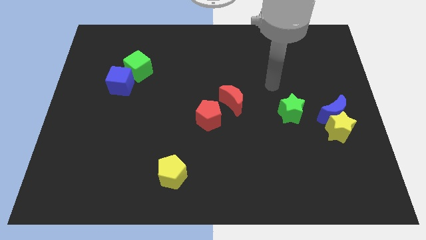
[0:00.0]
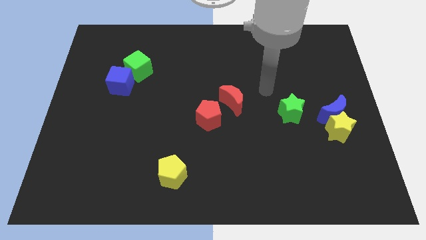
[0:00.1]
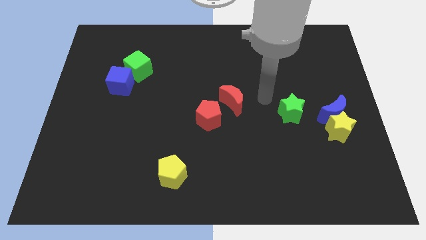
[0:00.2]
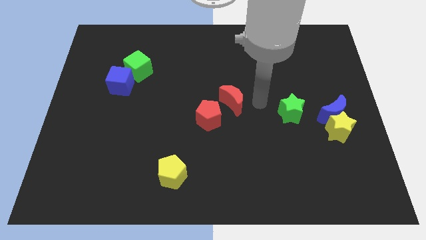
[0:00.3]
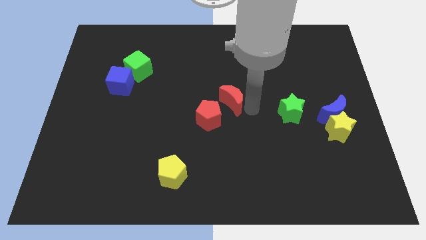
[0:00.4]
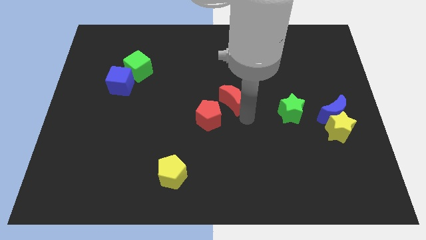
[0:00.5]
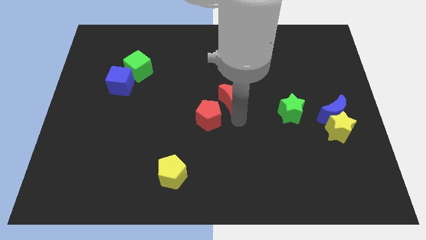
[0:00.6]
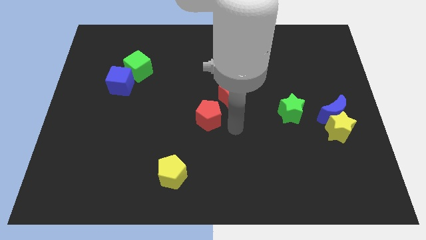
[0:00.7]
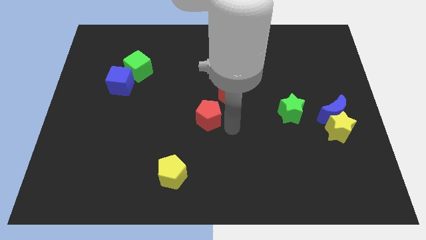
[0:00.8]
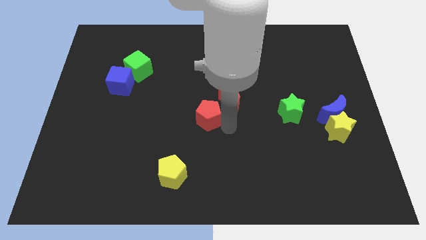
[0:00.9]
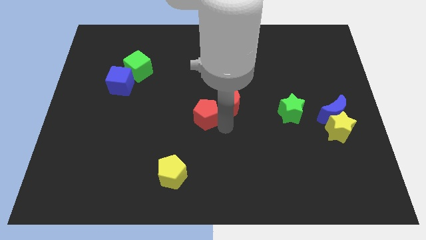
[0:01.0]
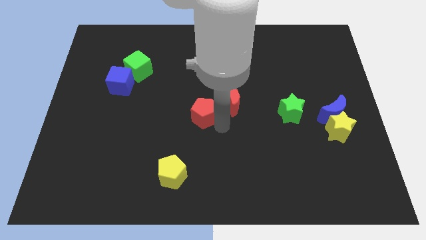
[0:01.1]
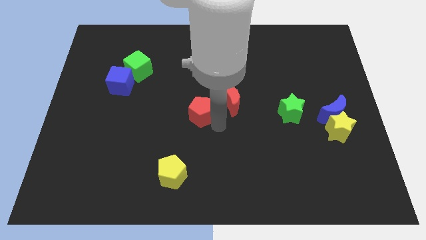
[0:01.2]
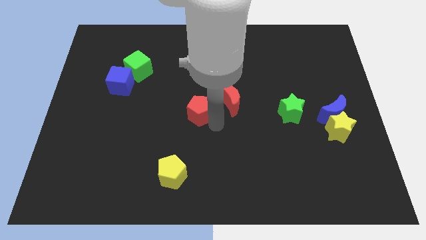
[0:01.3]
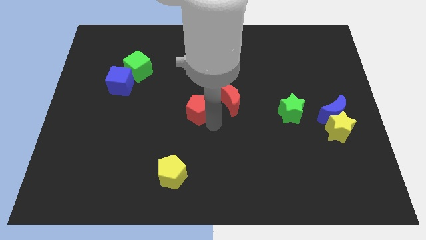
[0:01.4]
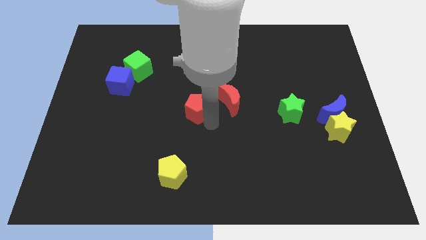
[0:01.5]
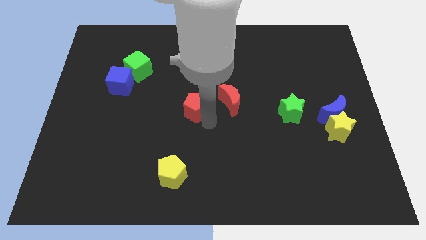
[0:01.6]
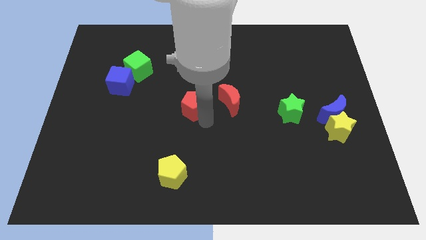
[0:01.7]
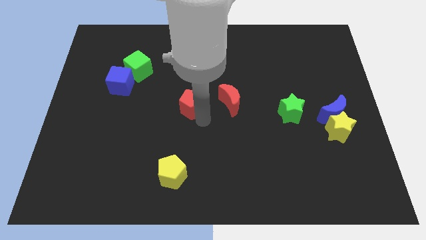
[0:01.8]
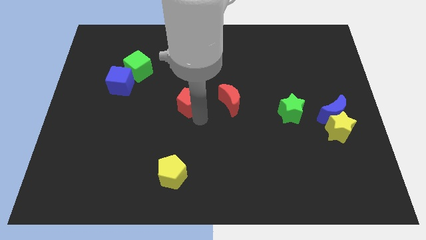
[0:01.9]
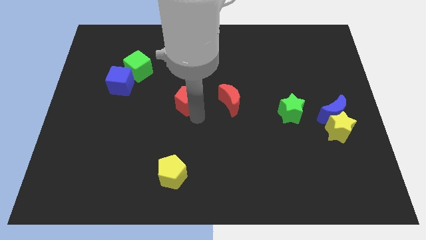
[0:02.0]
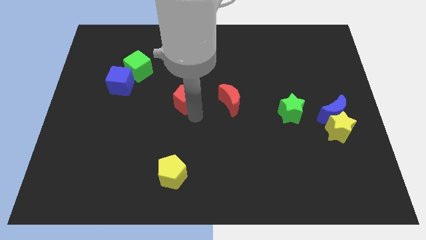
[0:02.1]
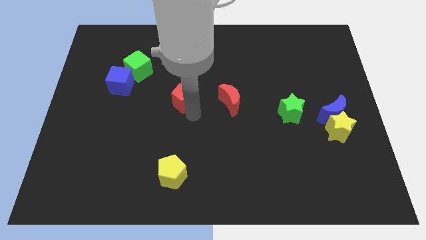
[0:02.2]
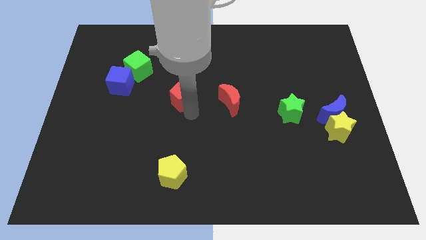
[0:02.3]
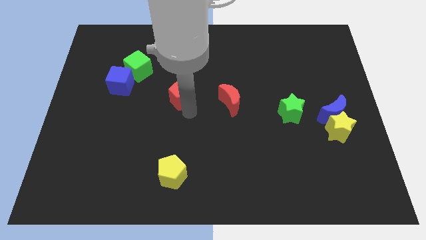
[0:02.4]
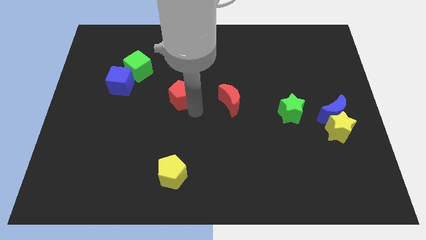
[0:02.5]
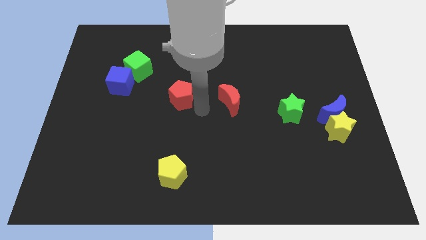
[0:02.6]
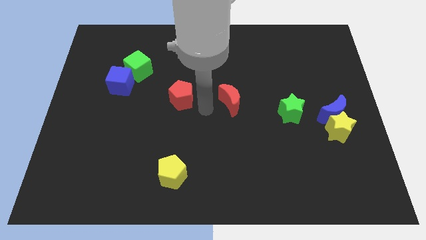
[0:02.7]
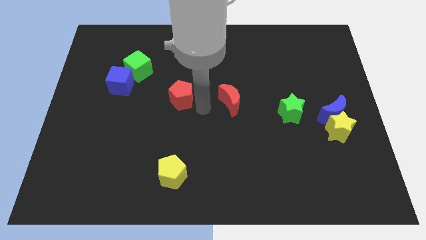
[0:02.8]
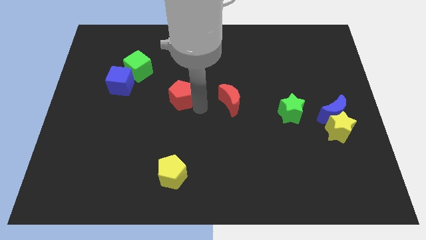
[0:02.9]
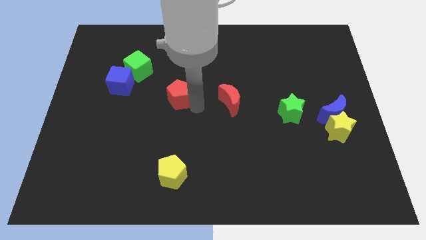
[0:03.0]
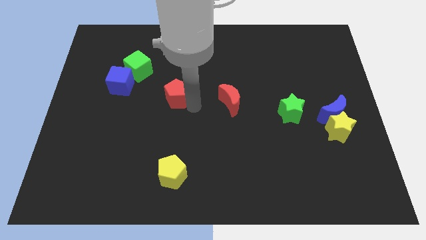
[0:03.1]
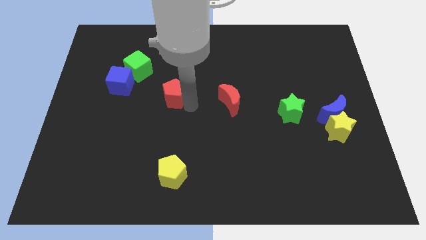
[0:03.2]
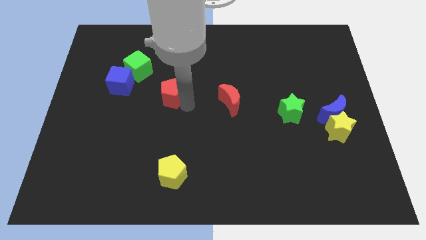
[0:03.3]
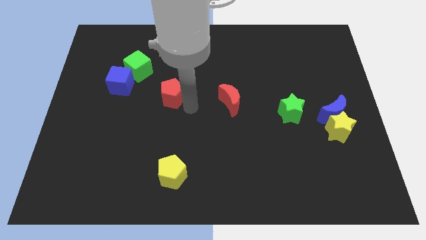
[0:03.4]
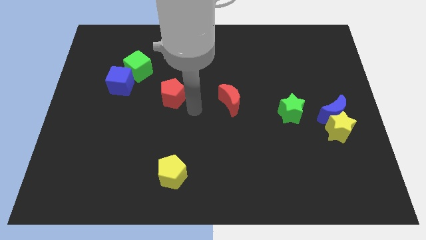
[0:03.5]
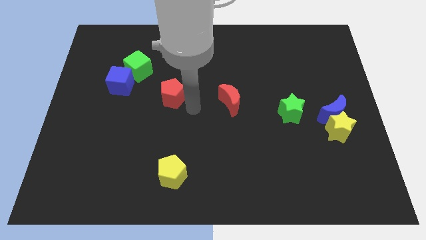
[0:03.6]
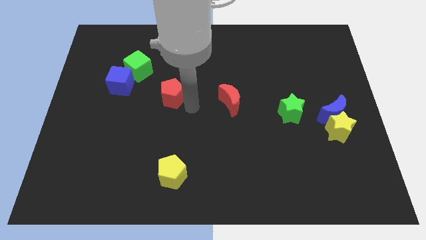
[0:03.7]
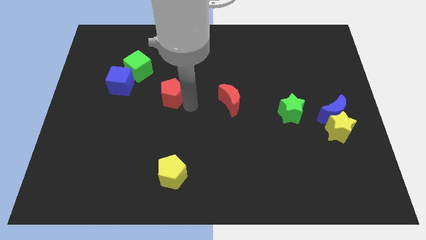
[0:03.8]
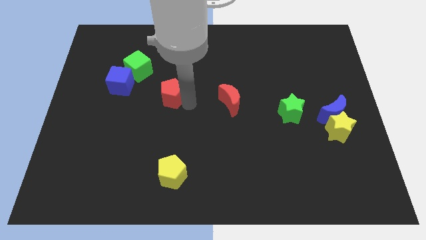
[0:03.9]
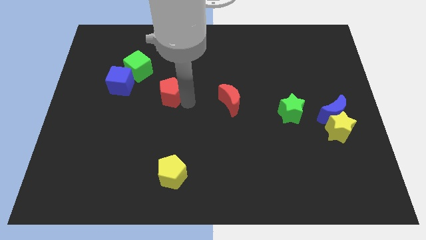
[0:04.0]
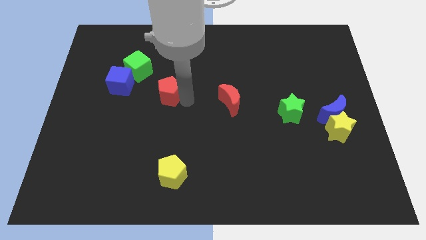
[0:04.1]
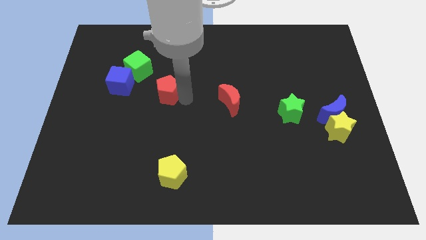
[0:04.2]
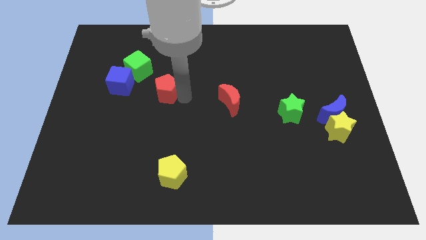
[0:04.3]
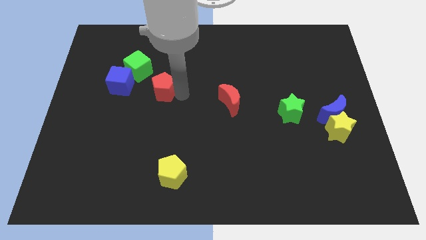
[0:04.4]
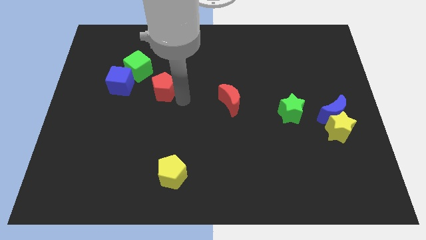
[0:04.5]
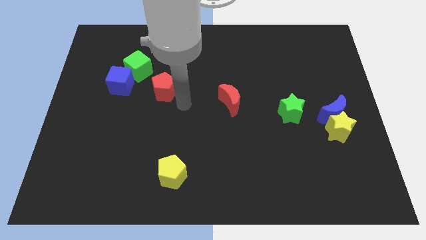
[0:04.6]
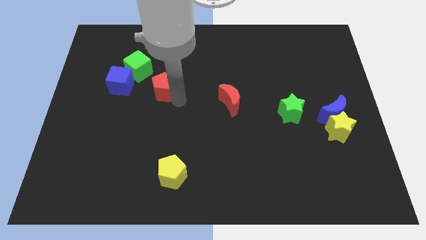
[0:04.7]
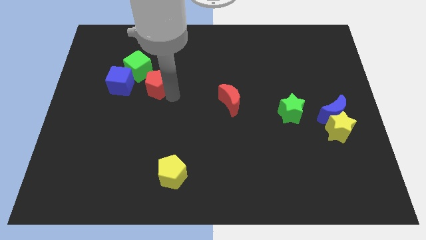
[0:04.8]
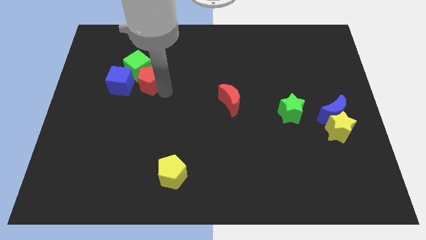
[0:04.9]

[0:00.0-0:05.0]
slide the red pentagon towards the green cube
